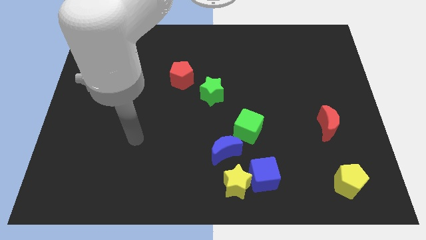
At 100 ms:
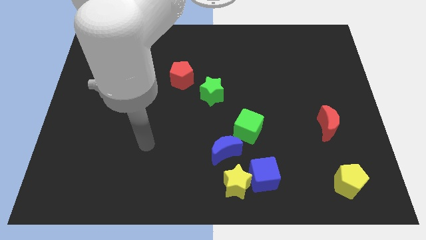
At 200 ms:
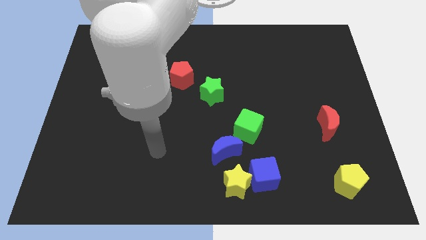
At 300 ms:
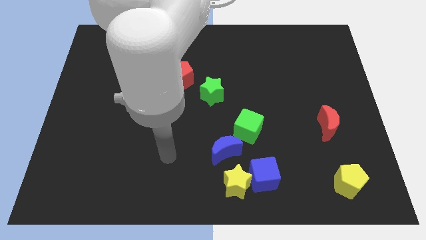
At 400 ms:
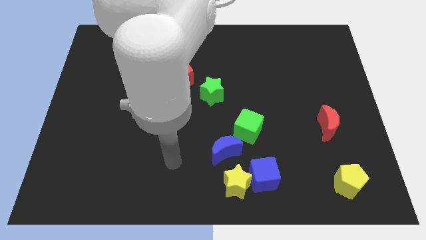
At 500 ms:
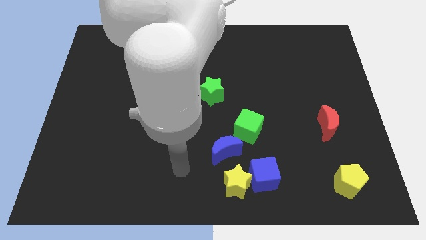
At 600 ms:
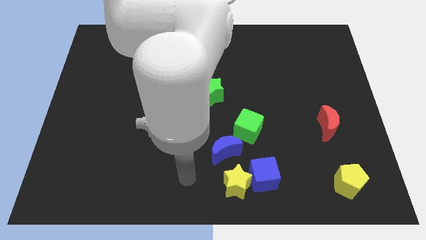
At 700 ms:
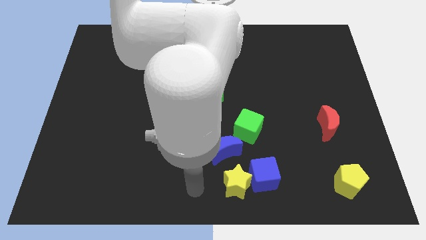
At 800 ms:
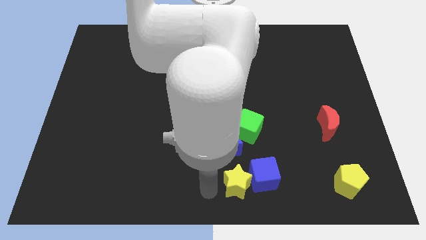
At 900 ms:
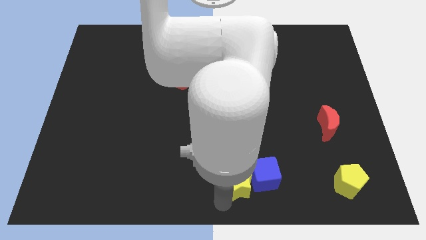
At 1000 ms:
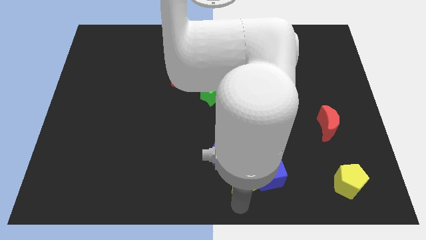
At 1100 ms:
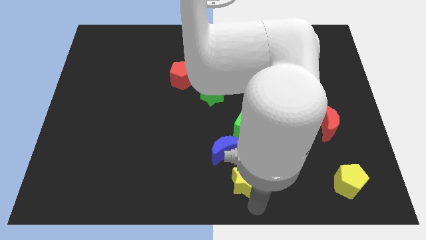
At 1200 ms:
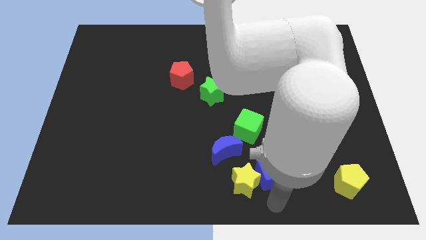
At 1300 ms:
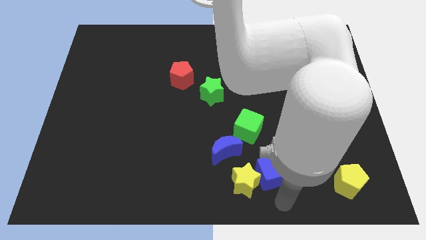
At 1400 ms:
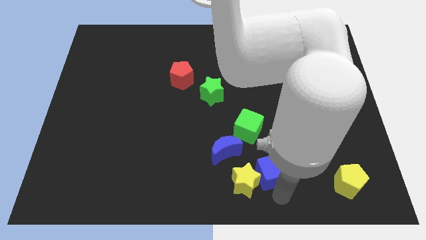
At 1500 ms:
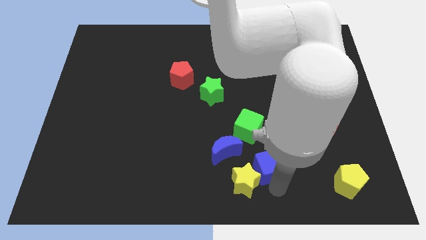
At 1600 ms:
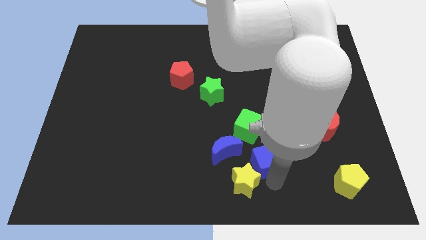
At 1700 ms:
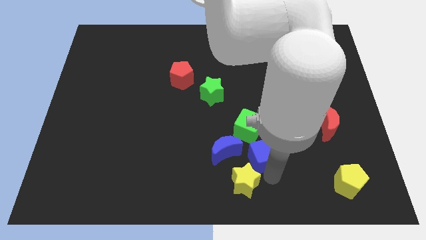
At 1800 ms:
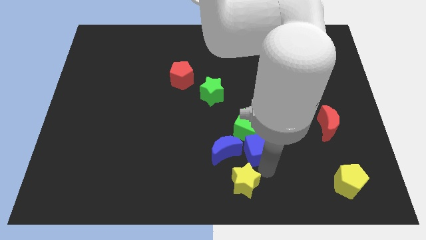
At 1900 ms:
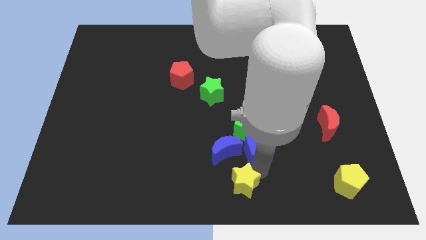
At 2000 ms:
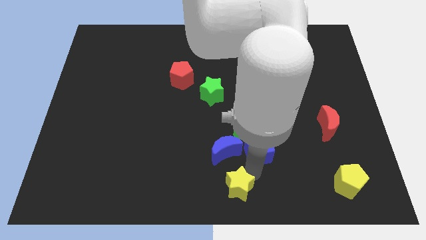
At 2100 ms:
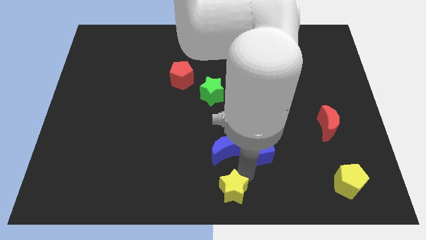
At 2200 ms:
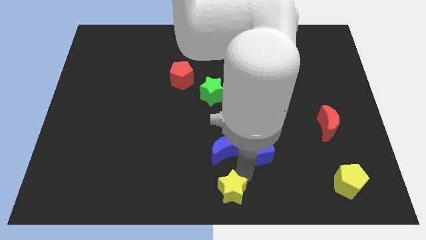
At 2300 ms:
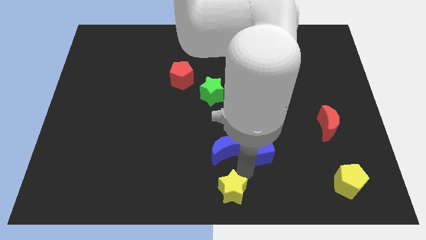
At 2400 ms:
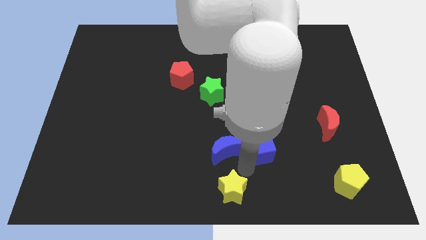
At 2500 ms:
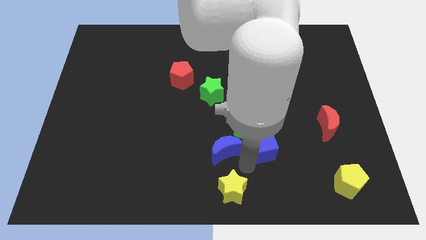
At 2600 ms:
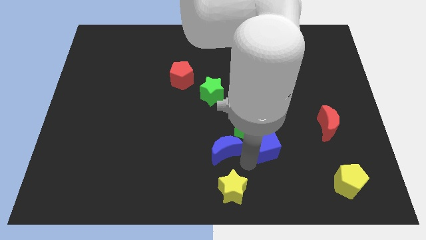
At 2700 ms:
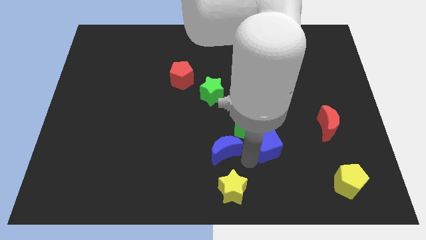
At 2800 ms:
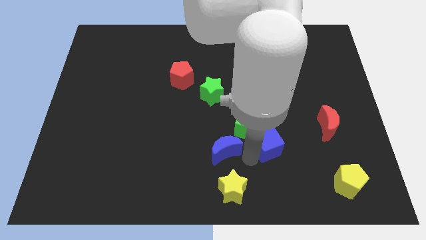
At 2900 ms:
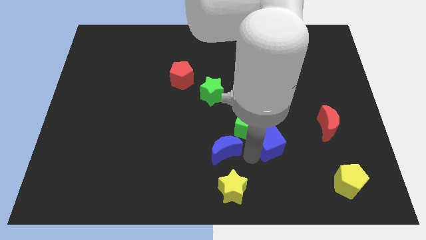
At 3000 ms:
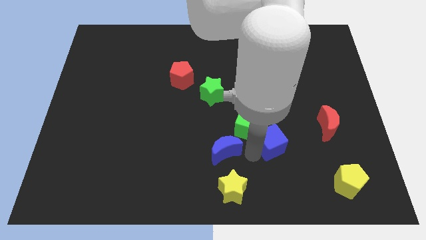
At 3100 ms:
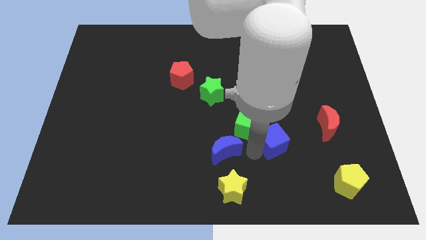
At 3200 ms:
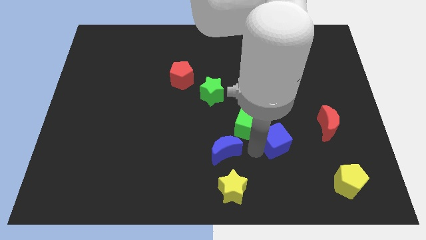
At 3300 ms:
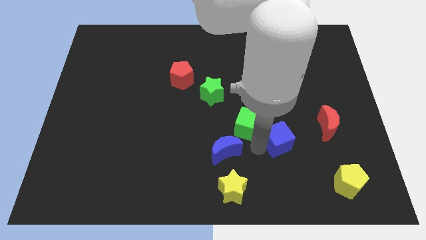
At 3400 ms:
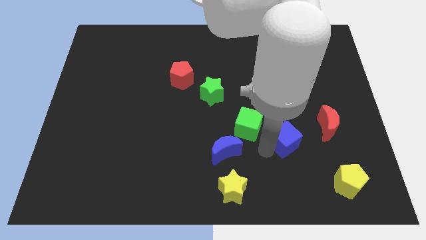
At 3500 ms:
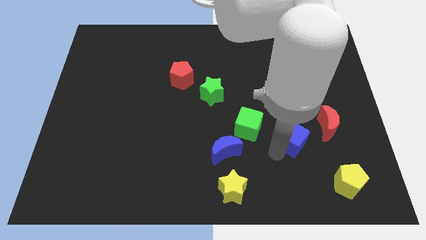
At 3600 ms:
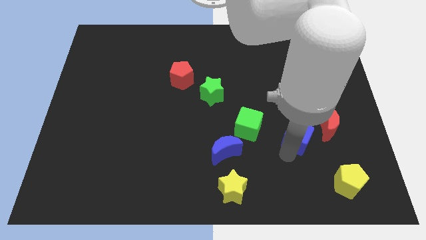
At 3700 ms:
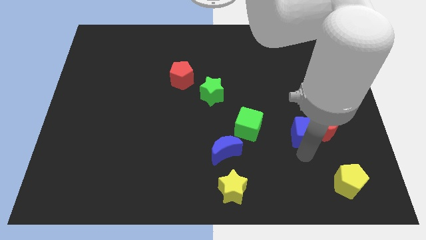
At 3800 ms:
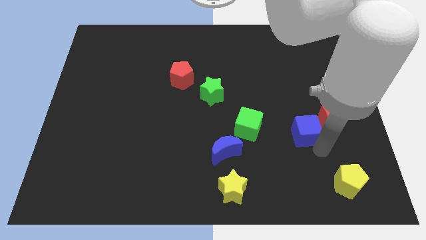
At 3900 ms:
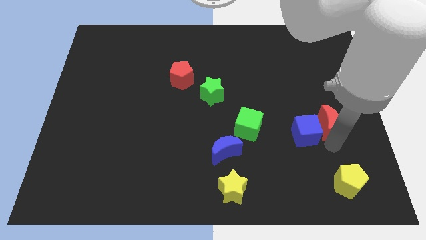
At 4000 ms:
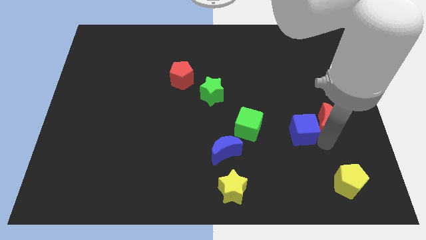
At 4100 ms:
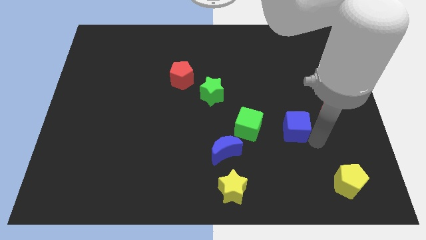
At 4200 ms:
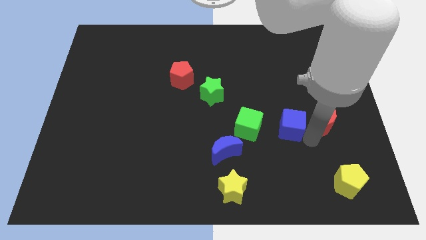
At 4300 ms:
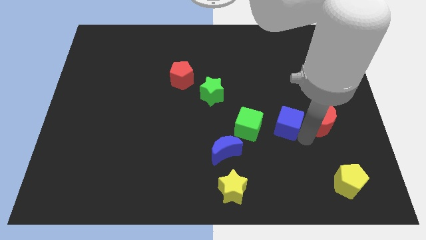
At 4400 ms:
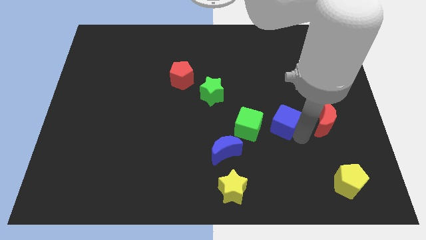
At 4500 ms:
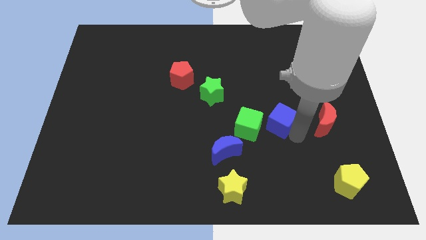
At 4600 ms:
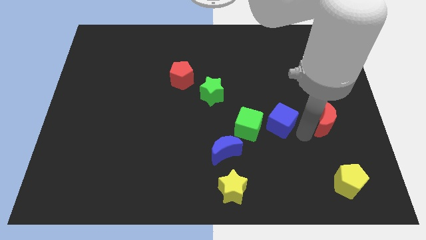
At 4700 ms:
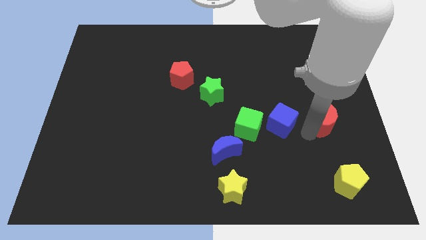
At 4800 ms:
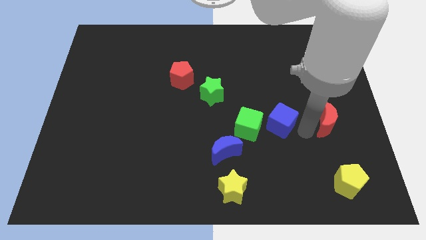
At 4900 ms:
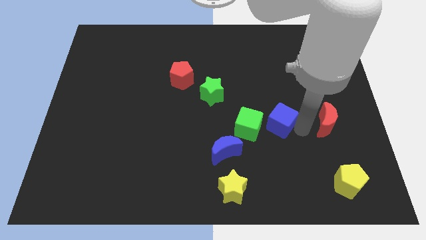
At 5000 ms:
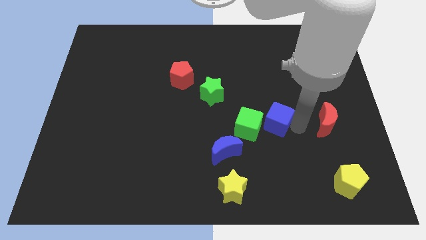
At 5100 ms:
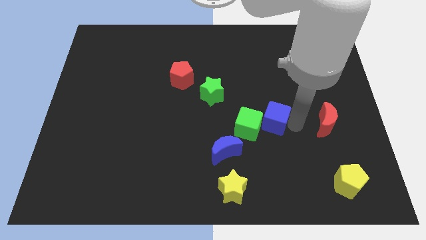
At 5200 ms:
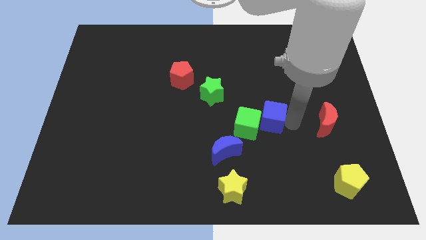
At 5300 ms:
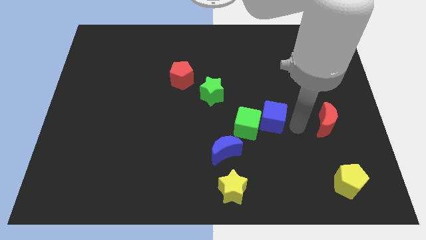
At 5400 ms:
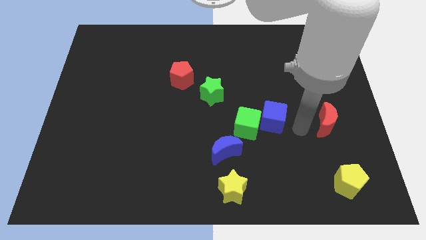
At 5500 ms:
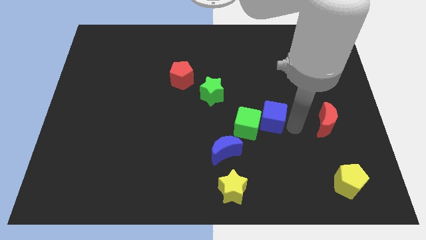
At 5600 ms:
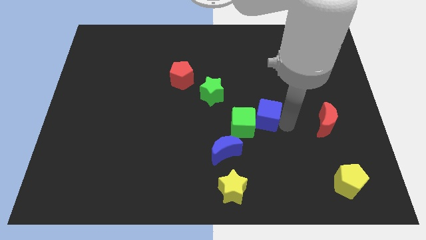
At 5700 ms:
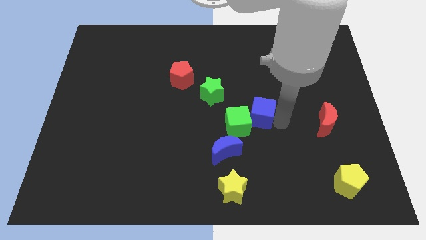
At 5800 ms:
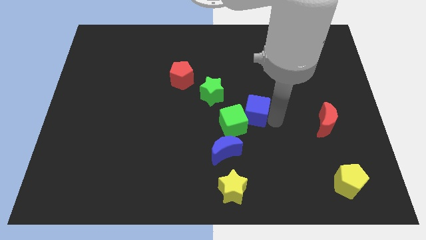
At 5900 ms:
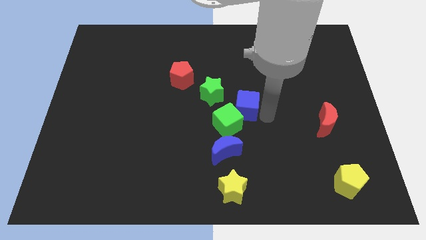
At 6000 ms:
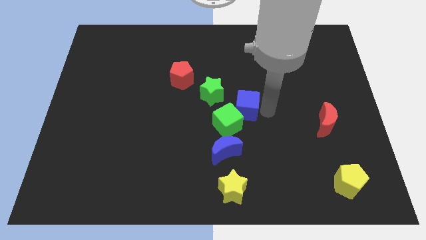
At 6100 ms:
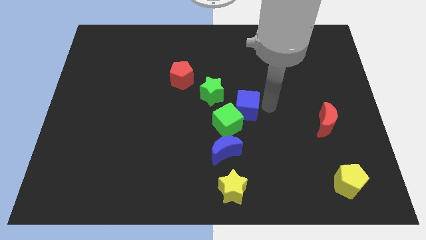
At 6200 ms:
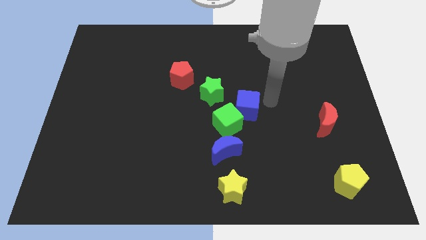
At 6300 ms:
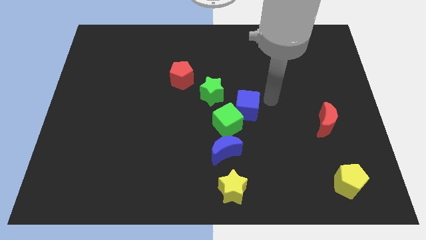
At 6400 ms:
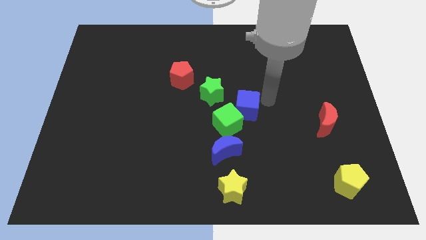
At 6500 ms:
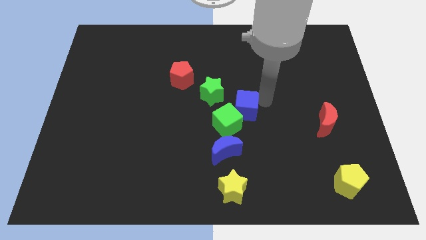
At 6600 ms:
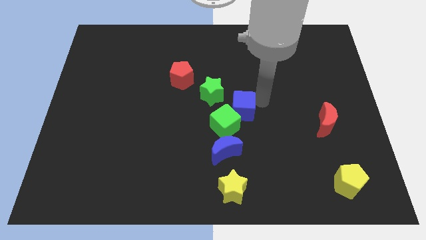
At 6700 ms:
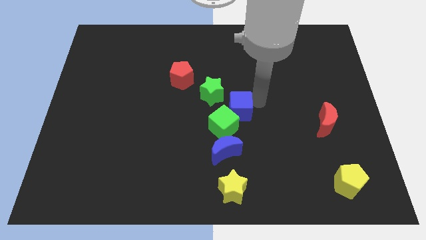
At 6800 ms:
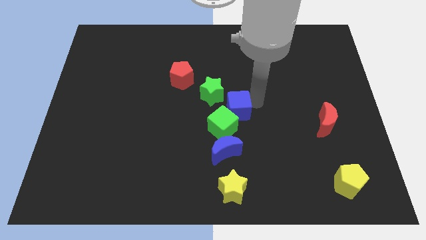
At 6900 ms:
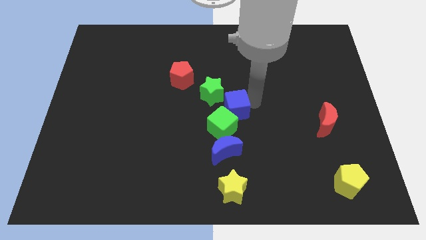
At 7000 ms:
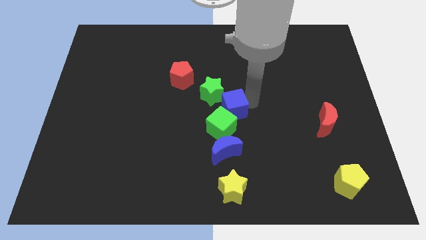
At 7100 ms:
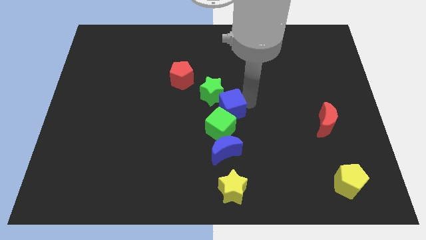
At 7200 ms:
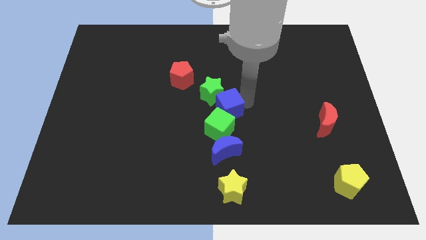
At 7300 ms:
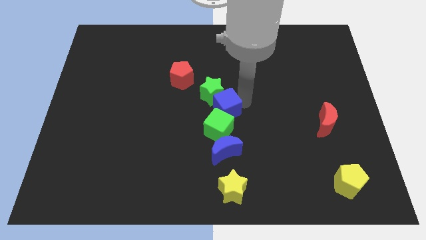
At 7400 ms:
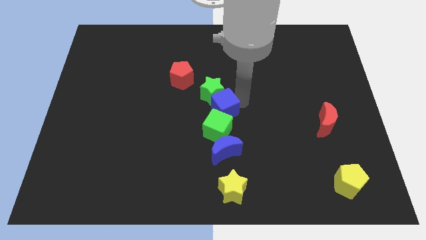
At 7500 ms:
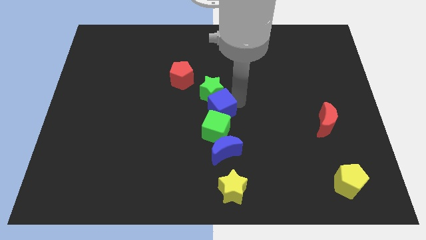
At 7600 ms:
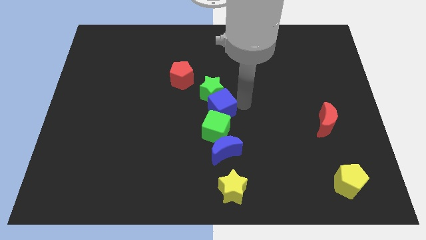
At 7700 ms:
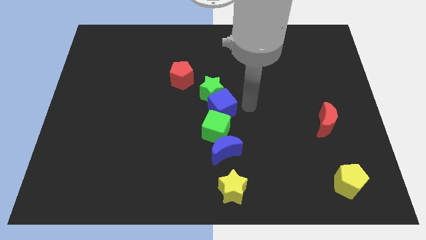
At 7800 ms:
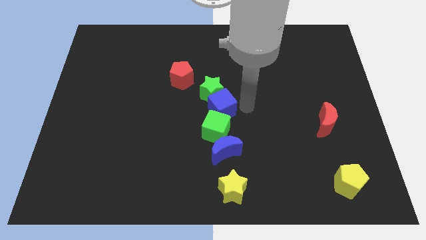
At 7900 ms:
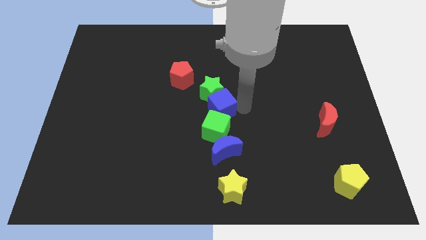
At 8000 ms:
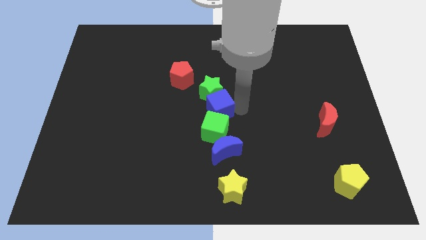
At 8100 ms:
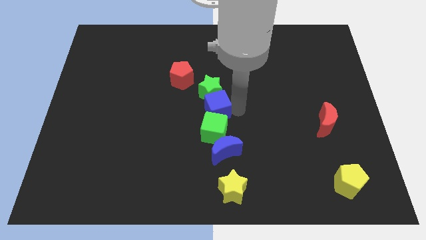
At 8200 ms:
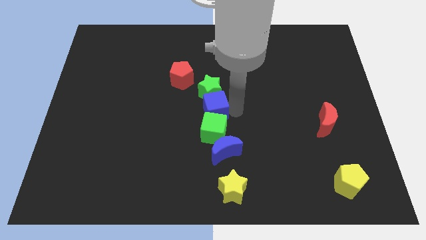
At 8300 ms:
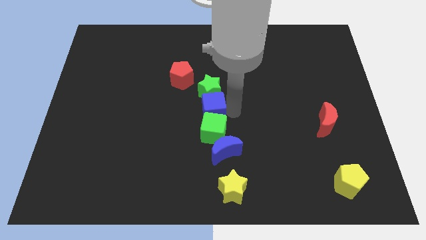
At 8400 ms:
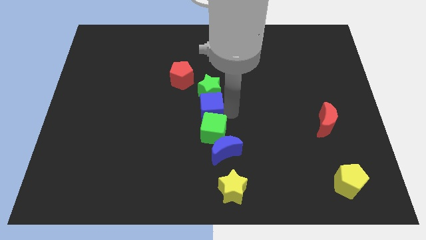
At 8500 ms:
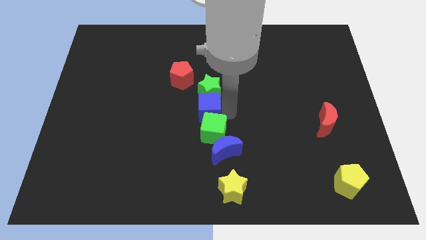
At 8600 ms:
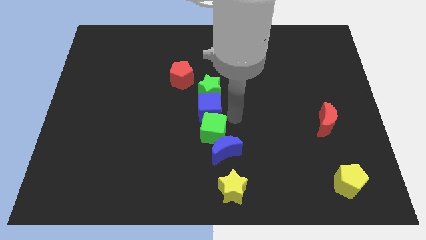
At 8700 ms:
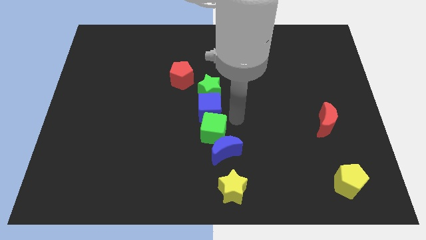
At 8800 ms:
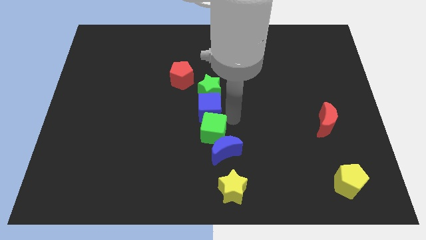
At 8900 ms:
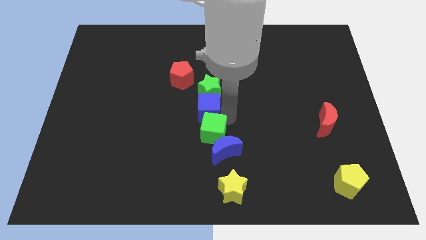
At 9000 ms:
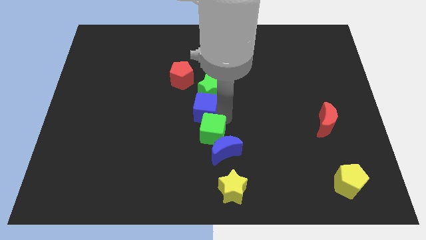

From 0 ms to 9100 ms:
slide the blue cube upwards and left
